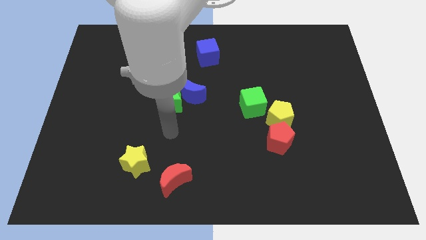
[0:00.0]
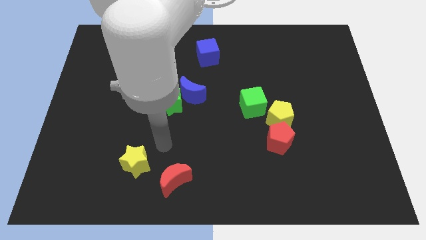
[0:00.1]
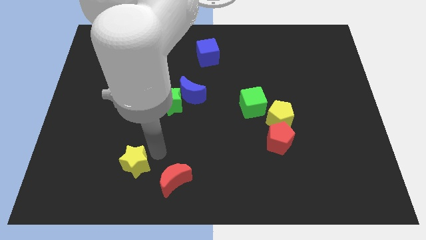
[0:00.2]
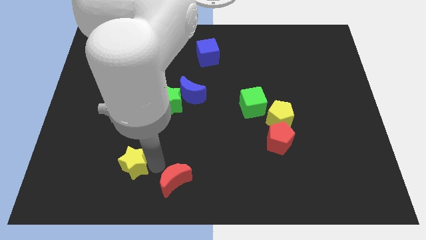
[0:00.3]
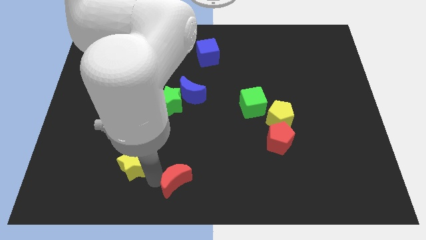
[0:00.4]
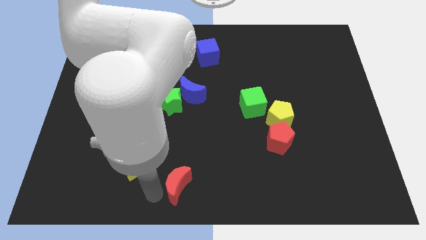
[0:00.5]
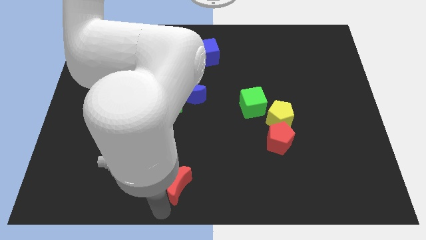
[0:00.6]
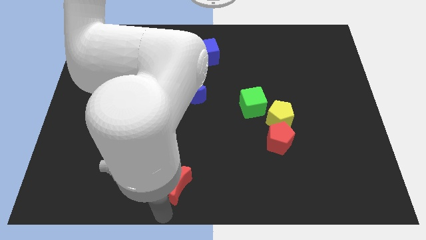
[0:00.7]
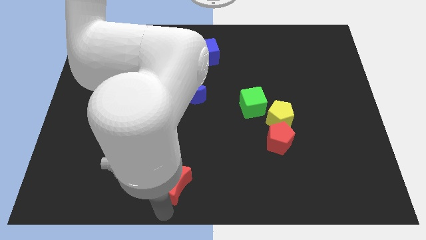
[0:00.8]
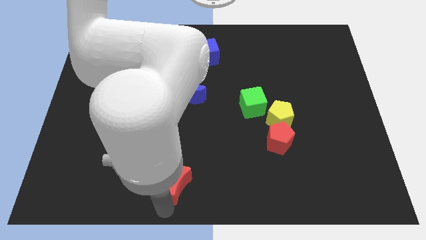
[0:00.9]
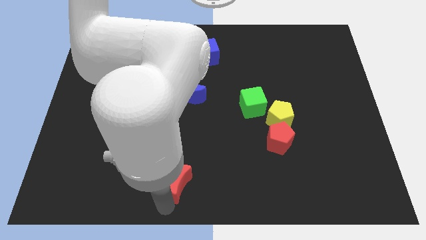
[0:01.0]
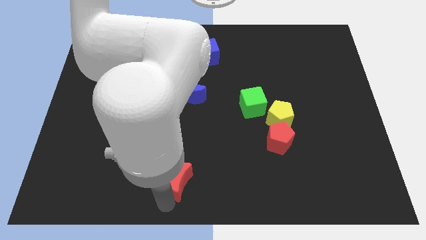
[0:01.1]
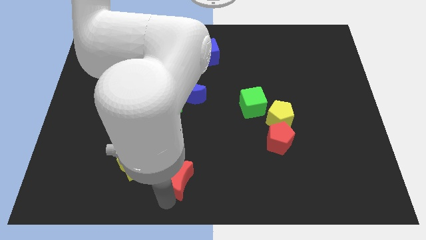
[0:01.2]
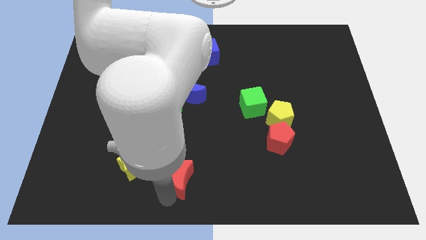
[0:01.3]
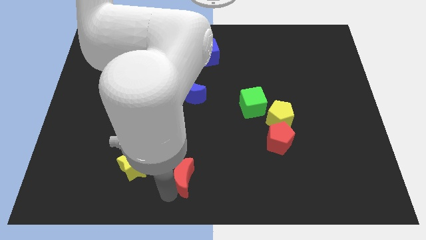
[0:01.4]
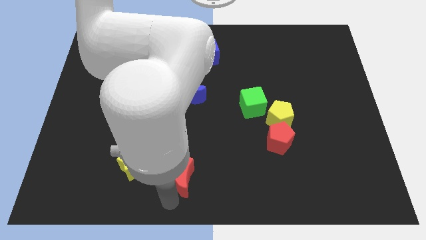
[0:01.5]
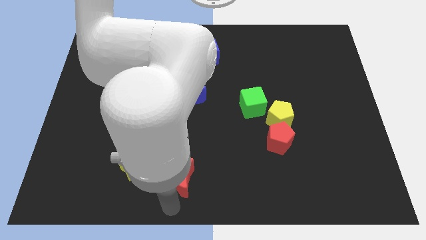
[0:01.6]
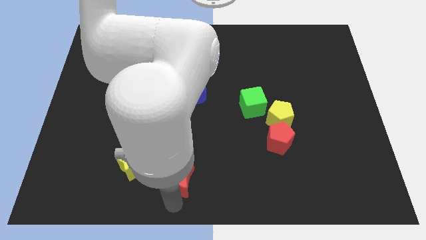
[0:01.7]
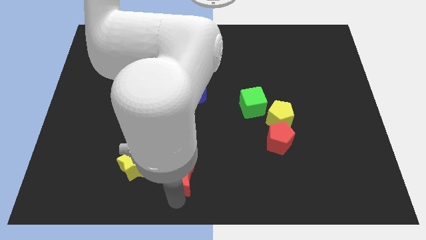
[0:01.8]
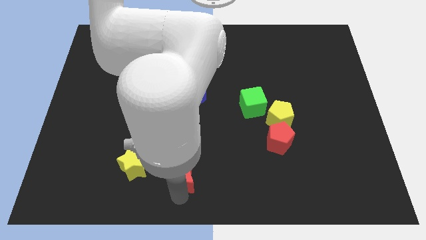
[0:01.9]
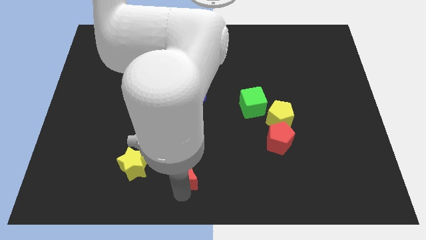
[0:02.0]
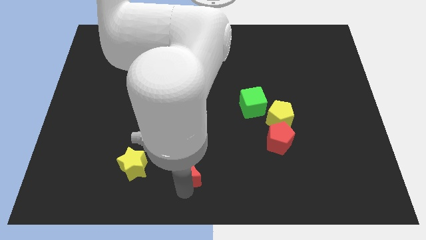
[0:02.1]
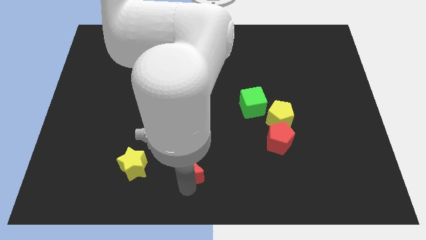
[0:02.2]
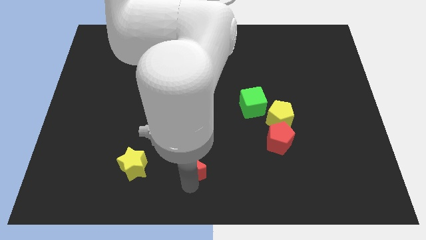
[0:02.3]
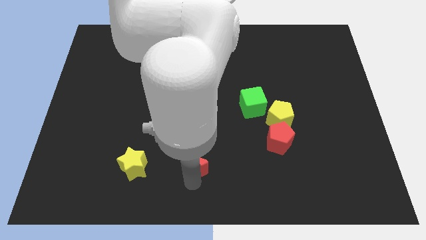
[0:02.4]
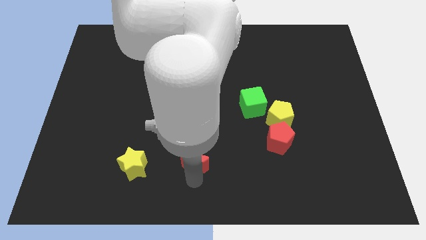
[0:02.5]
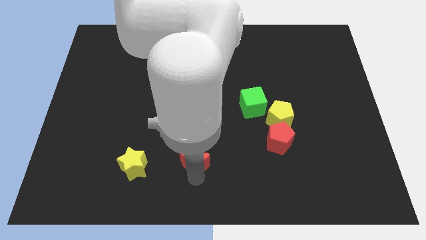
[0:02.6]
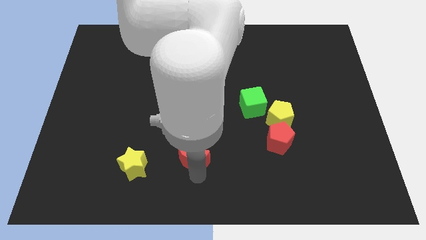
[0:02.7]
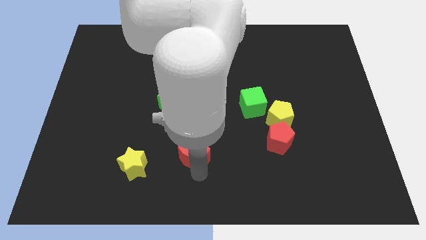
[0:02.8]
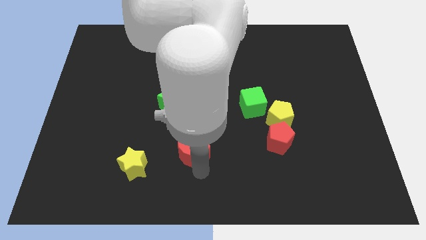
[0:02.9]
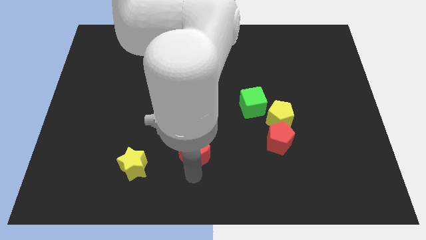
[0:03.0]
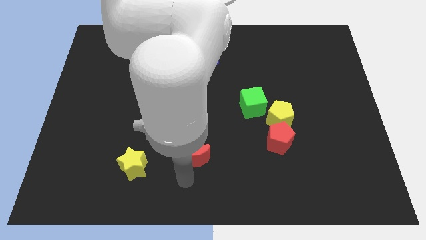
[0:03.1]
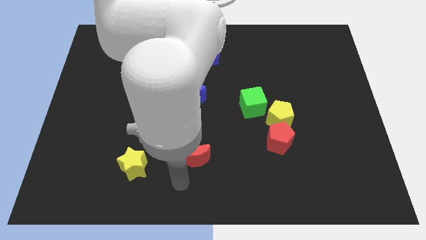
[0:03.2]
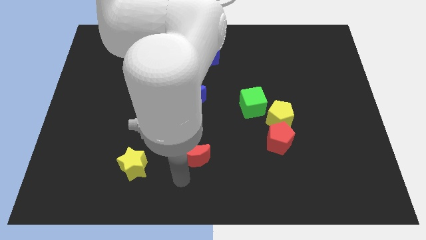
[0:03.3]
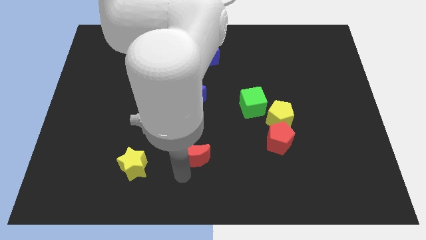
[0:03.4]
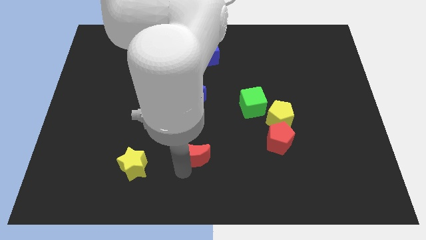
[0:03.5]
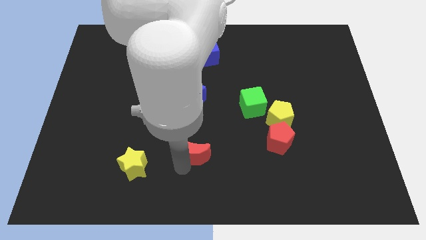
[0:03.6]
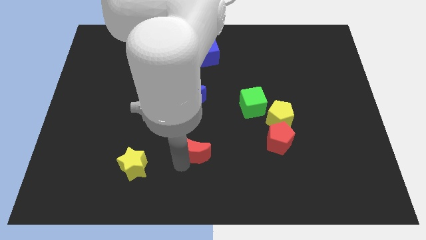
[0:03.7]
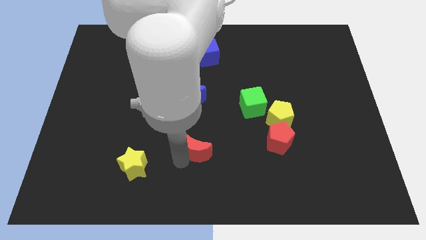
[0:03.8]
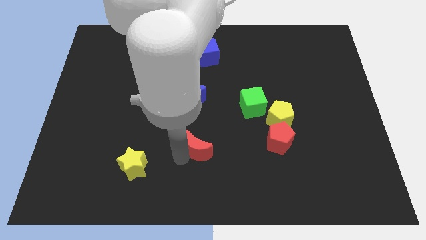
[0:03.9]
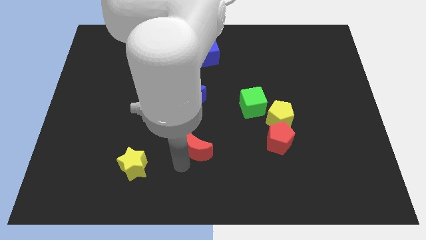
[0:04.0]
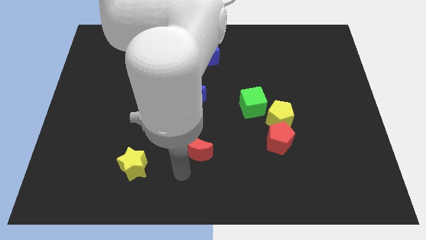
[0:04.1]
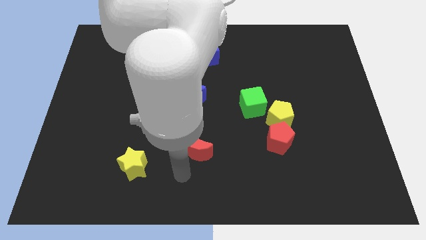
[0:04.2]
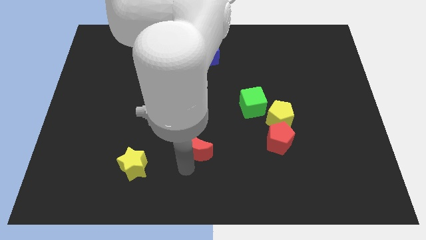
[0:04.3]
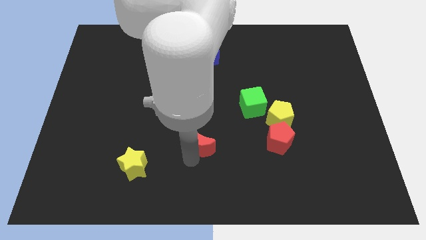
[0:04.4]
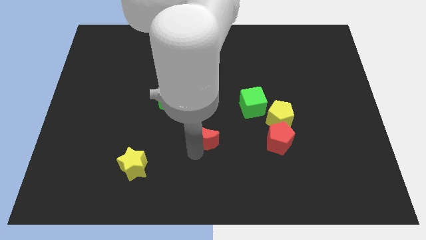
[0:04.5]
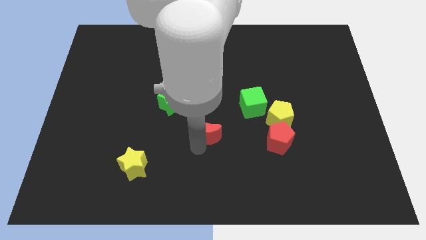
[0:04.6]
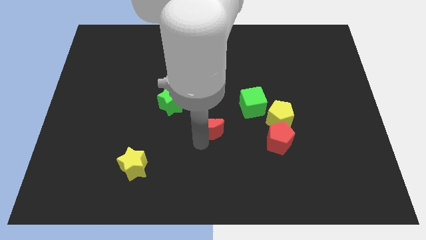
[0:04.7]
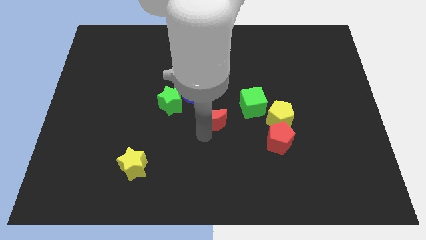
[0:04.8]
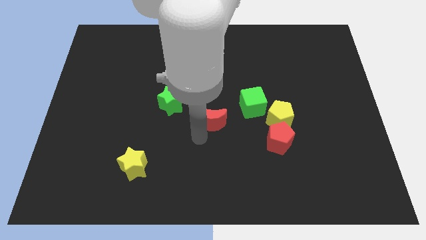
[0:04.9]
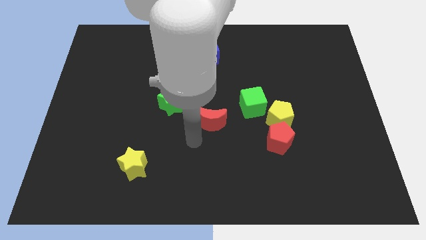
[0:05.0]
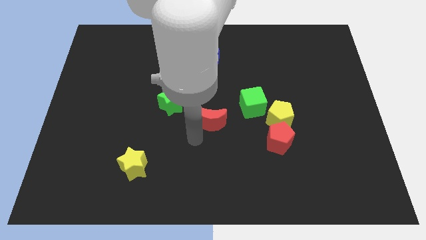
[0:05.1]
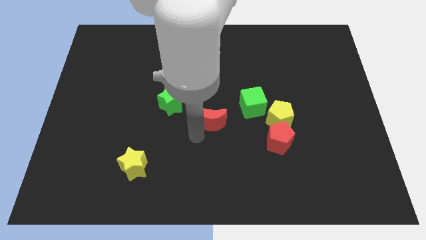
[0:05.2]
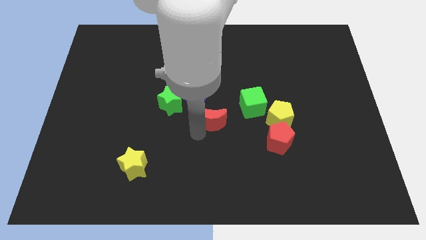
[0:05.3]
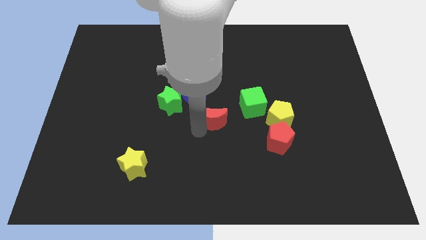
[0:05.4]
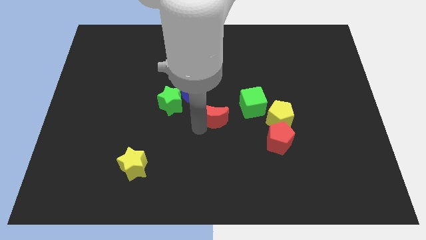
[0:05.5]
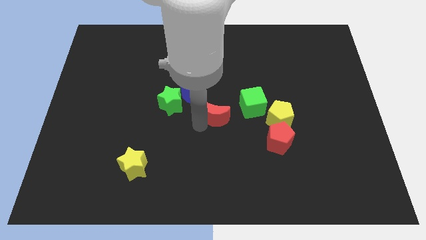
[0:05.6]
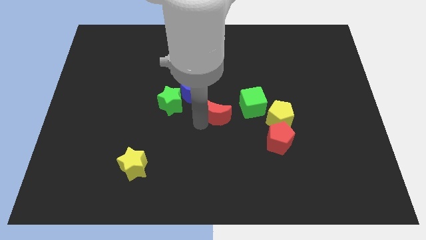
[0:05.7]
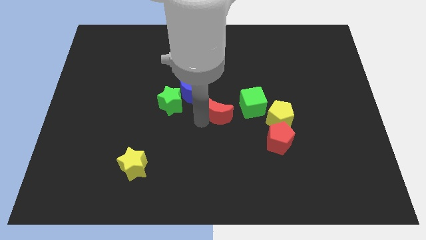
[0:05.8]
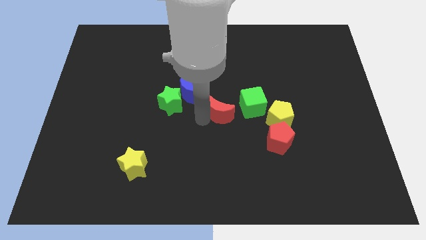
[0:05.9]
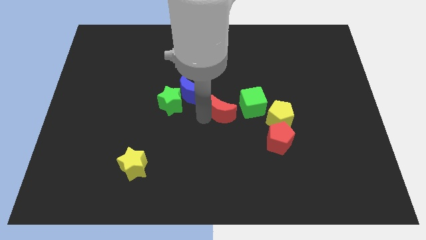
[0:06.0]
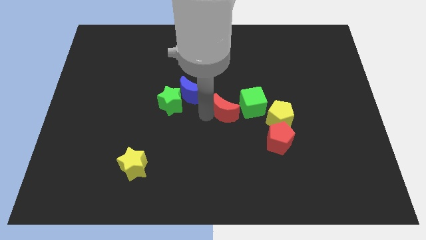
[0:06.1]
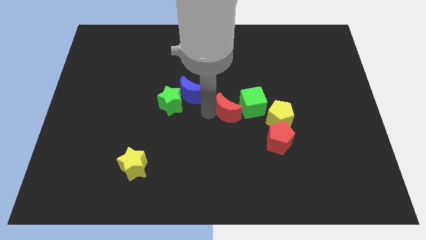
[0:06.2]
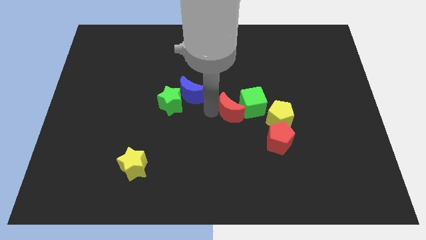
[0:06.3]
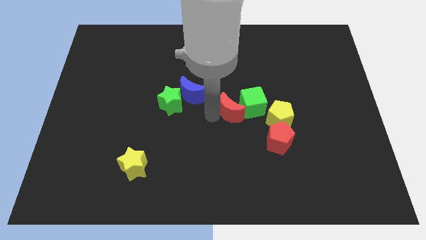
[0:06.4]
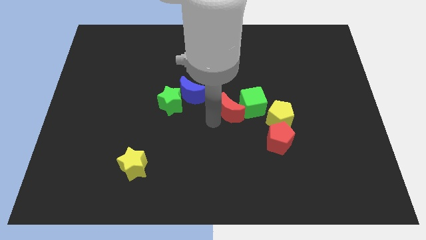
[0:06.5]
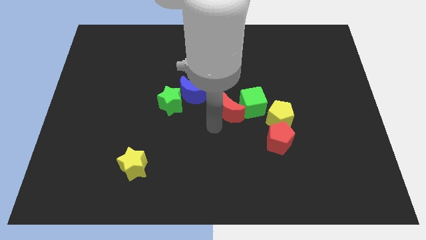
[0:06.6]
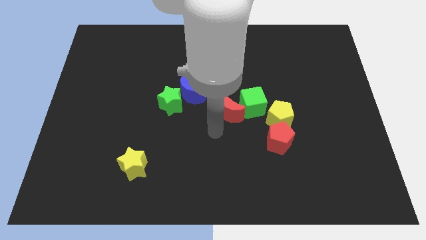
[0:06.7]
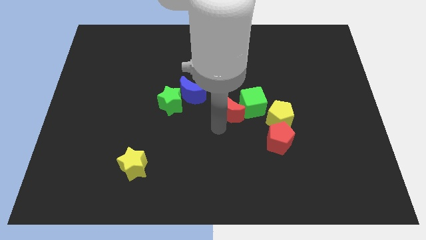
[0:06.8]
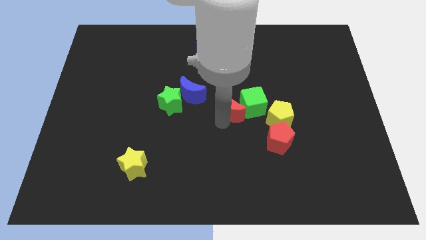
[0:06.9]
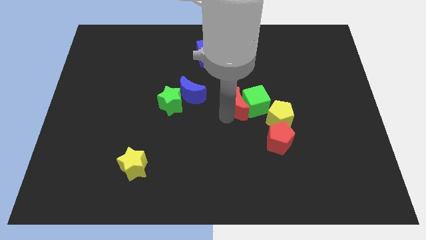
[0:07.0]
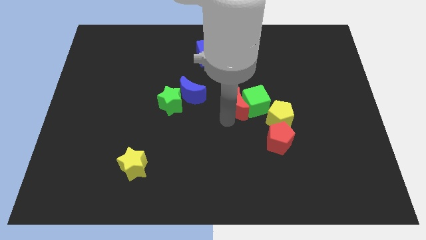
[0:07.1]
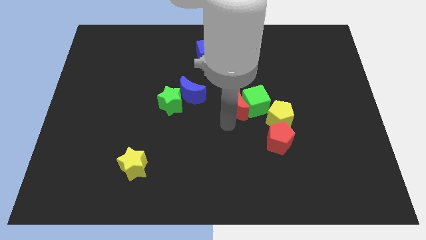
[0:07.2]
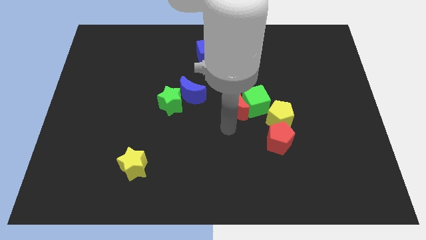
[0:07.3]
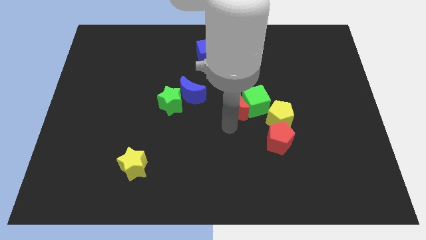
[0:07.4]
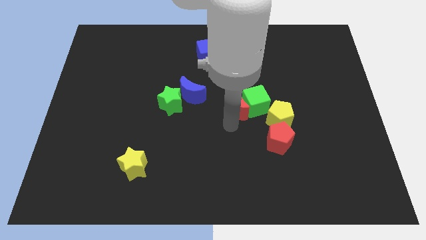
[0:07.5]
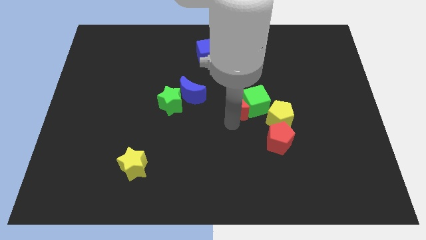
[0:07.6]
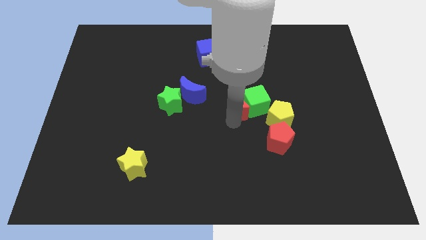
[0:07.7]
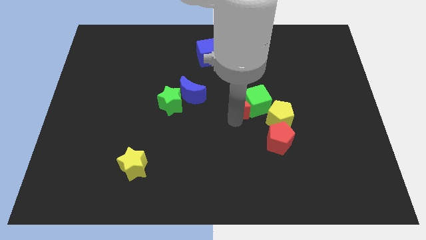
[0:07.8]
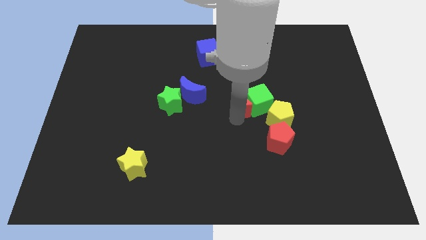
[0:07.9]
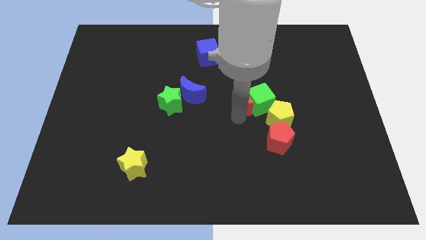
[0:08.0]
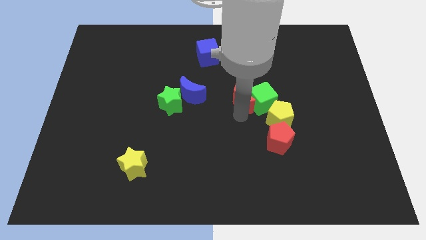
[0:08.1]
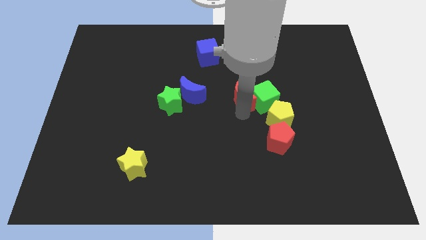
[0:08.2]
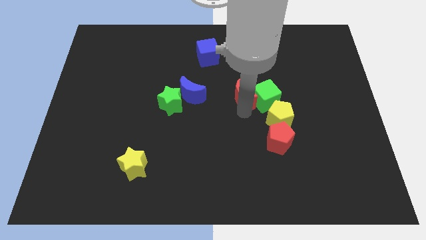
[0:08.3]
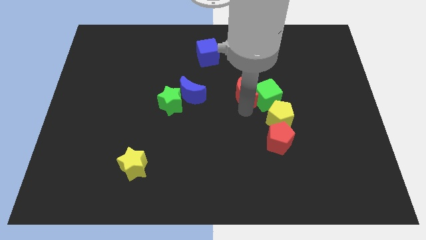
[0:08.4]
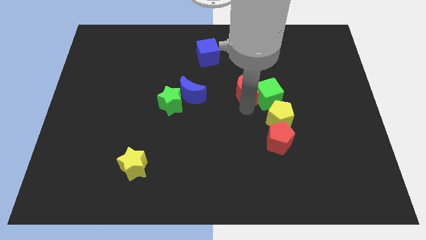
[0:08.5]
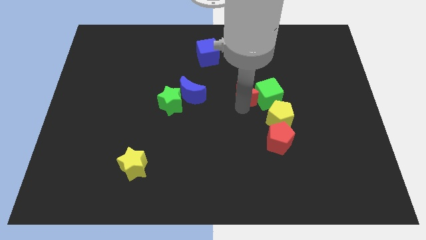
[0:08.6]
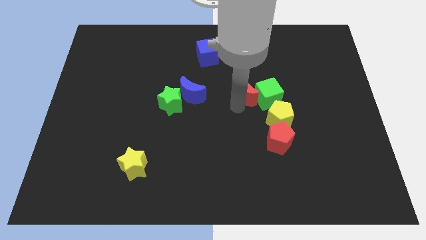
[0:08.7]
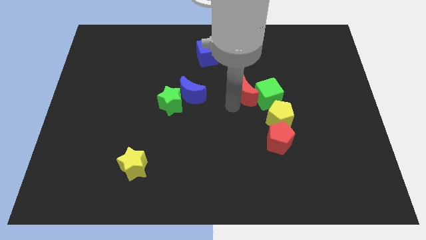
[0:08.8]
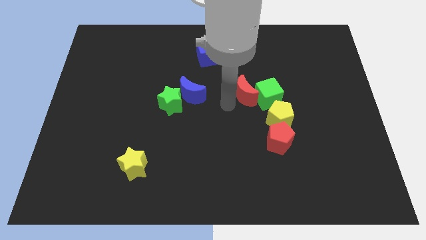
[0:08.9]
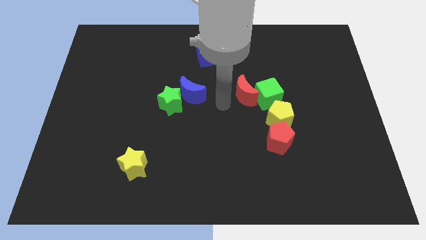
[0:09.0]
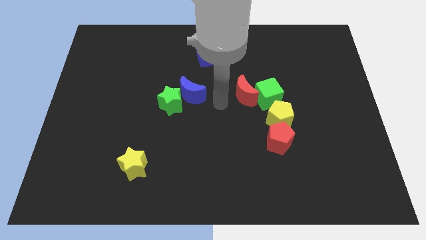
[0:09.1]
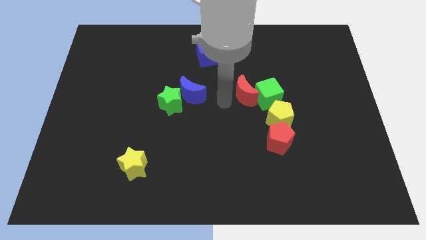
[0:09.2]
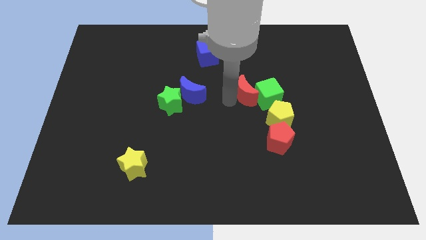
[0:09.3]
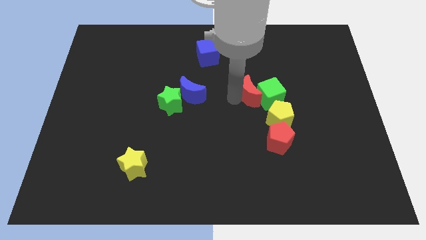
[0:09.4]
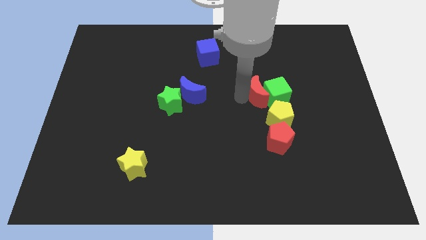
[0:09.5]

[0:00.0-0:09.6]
slide the red moon to the top of the yellow pentagon
